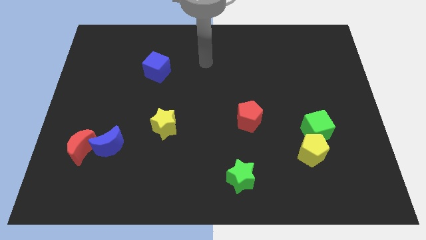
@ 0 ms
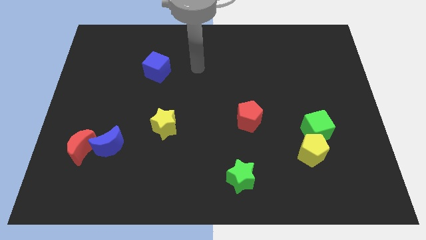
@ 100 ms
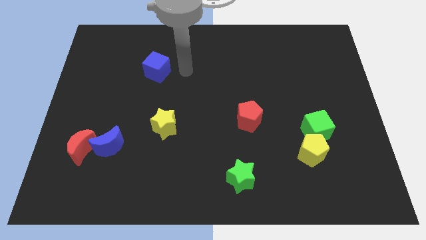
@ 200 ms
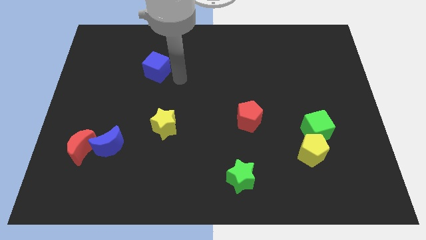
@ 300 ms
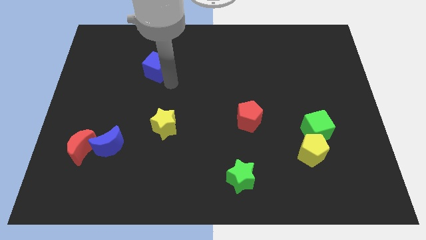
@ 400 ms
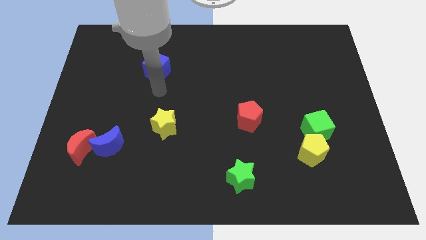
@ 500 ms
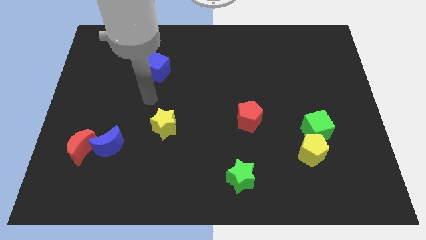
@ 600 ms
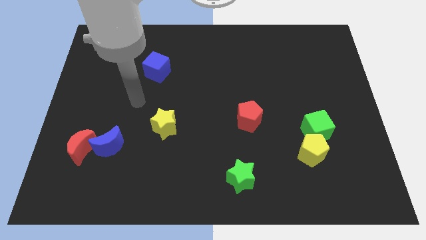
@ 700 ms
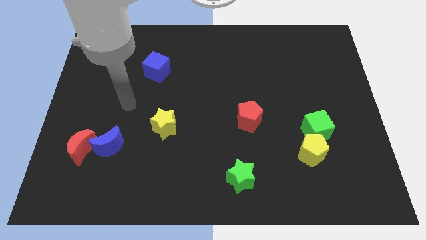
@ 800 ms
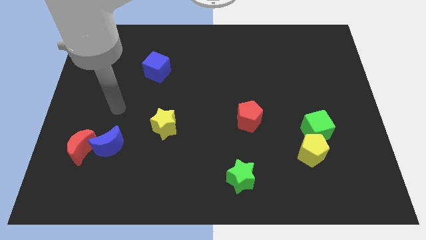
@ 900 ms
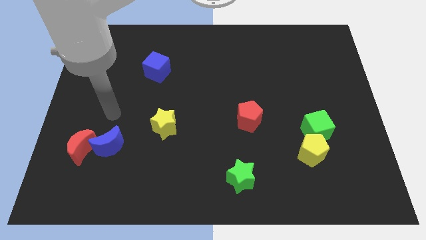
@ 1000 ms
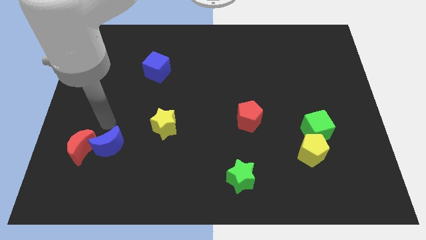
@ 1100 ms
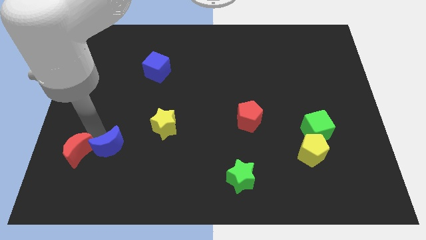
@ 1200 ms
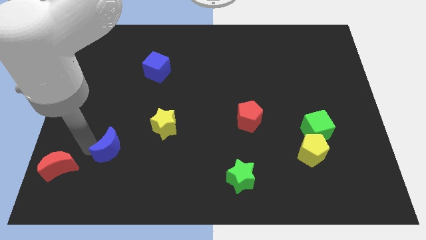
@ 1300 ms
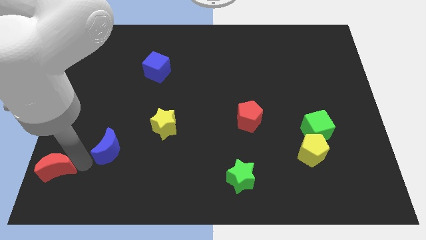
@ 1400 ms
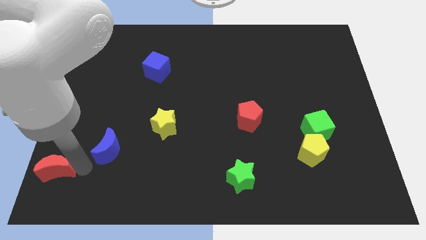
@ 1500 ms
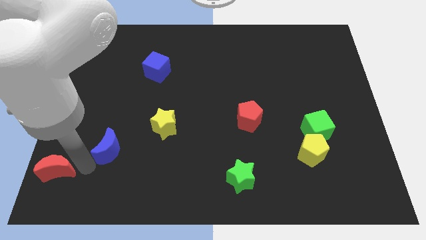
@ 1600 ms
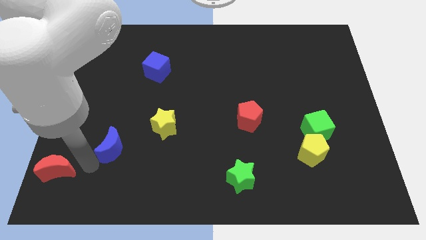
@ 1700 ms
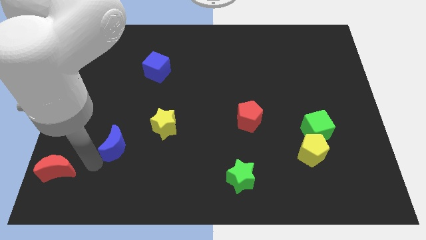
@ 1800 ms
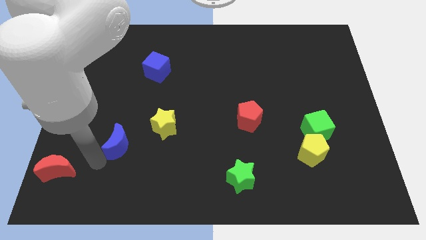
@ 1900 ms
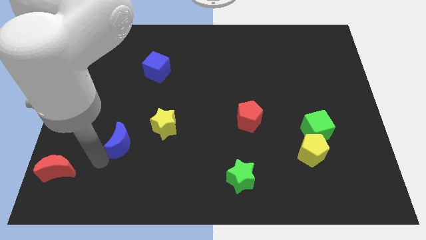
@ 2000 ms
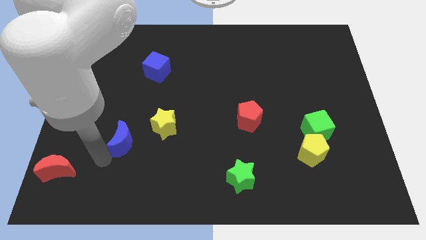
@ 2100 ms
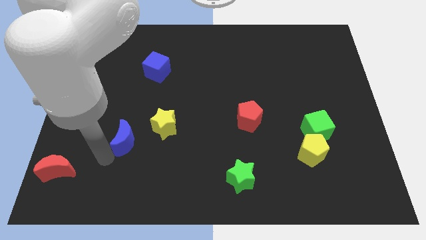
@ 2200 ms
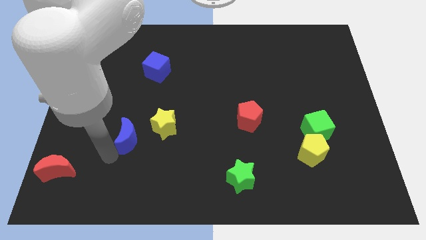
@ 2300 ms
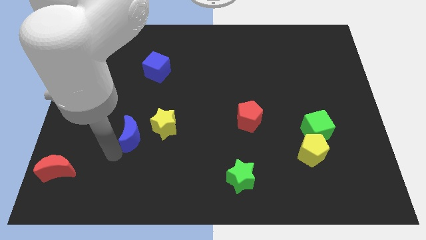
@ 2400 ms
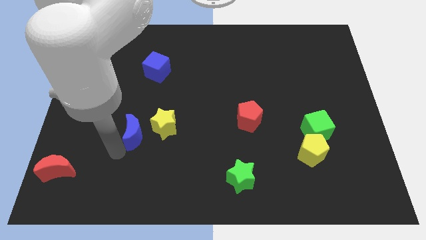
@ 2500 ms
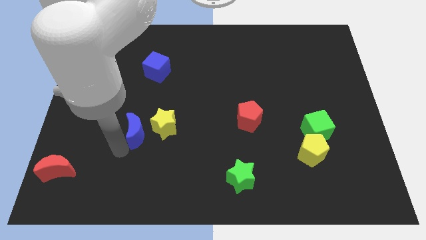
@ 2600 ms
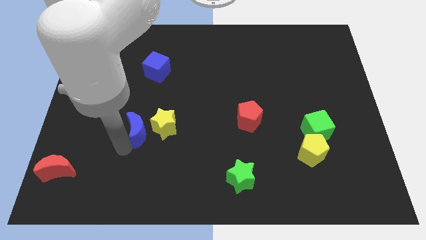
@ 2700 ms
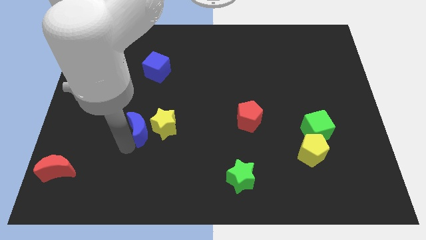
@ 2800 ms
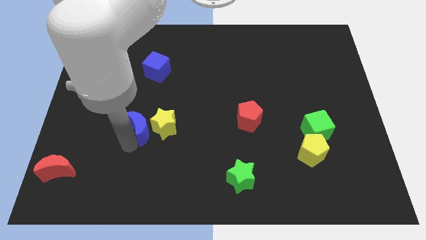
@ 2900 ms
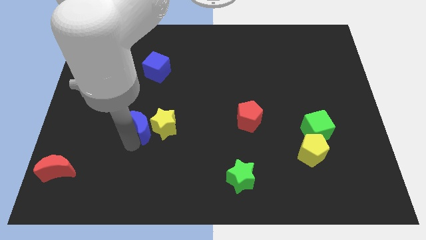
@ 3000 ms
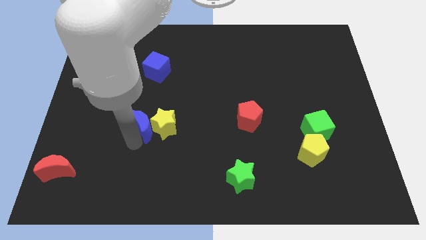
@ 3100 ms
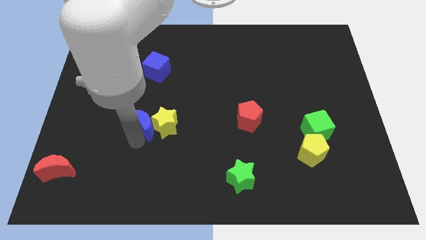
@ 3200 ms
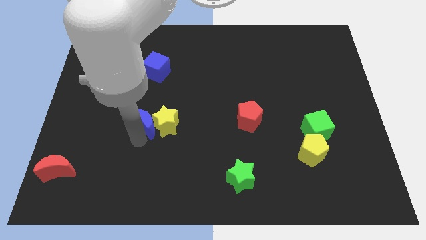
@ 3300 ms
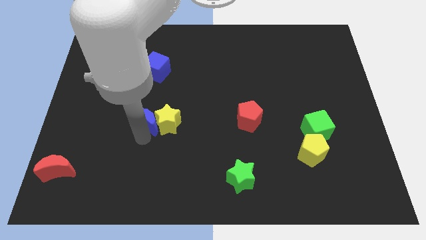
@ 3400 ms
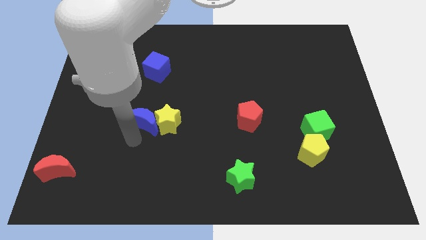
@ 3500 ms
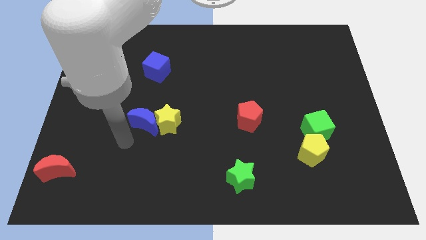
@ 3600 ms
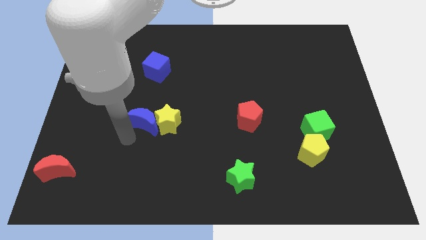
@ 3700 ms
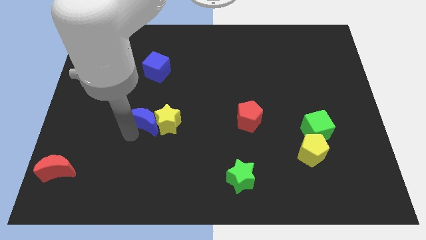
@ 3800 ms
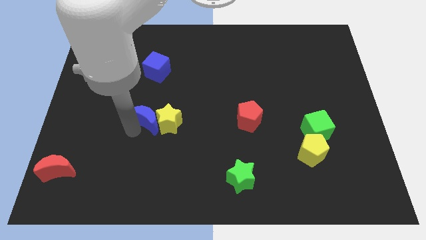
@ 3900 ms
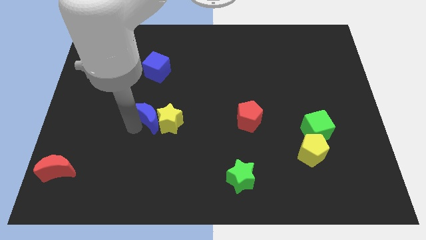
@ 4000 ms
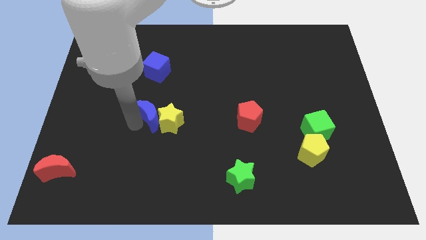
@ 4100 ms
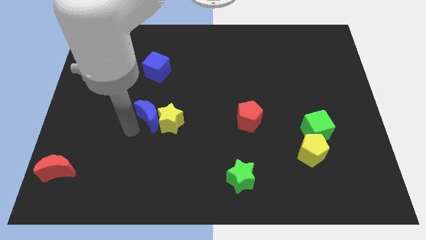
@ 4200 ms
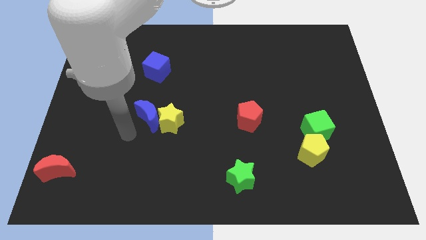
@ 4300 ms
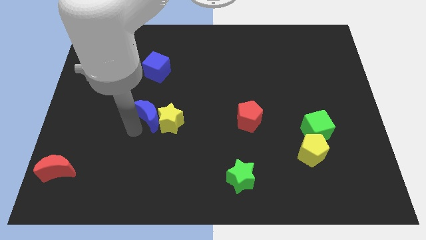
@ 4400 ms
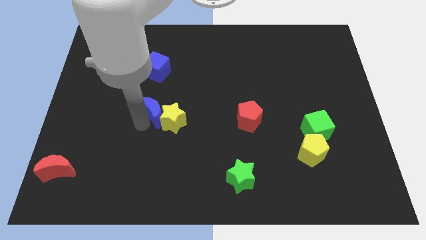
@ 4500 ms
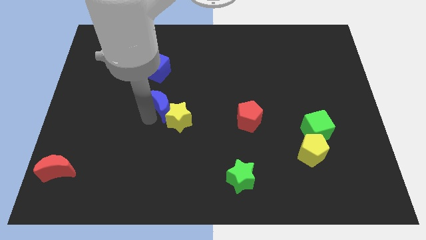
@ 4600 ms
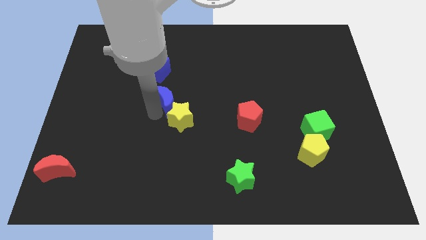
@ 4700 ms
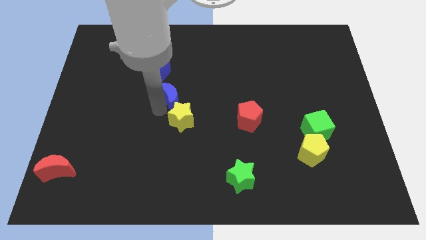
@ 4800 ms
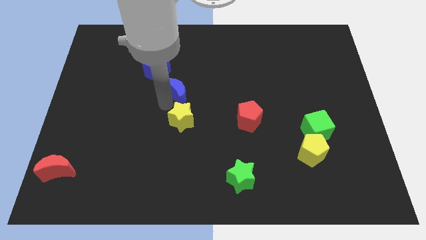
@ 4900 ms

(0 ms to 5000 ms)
slide the blue moon upwards and to the right diagonally

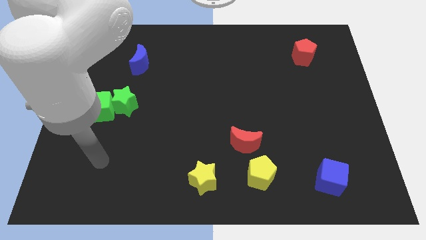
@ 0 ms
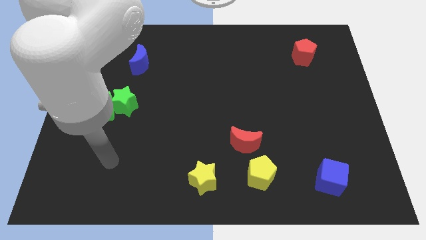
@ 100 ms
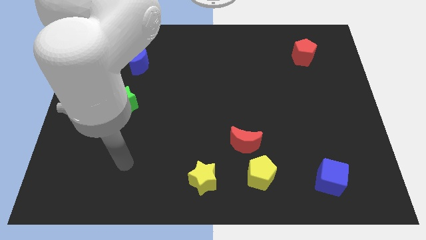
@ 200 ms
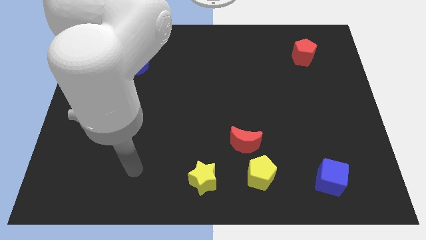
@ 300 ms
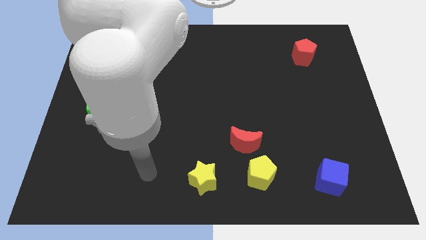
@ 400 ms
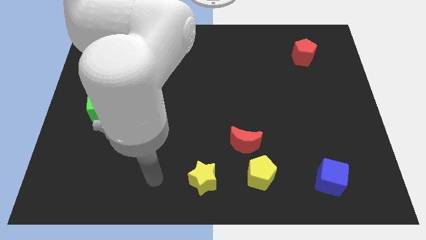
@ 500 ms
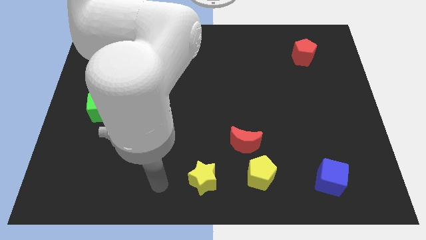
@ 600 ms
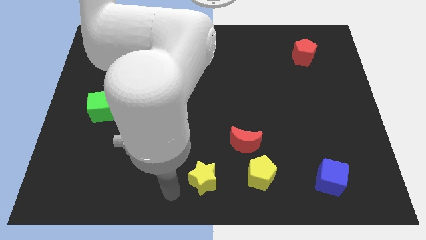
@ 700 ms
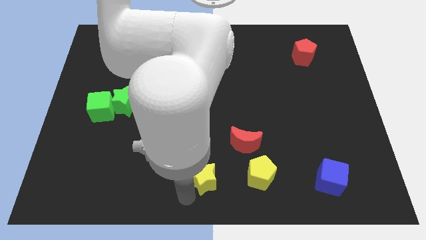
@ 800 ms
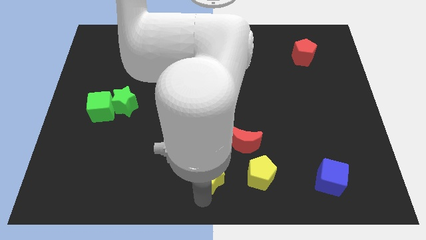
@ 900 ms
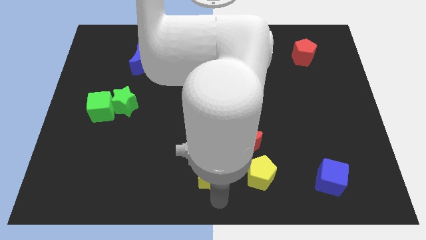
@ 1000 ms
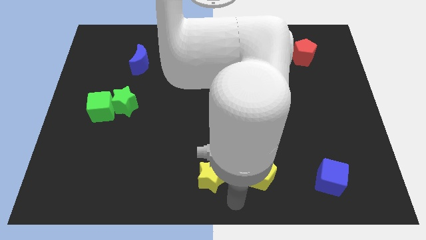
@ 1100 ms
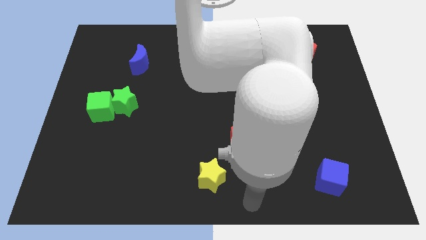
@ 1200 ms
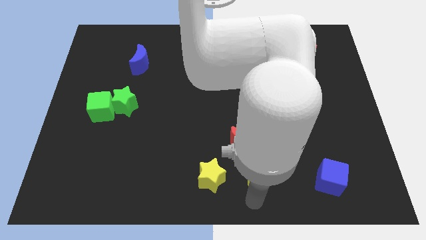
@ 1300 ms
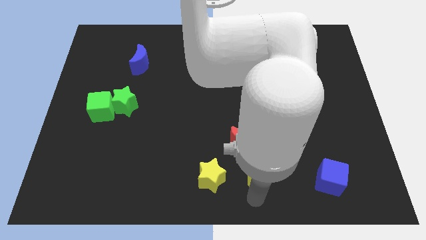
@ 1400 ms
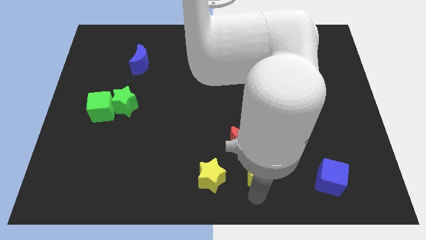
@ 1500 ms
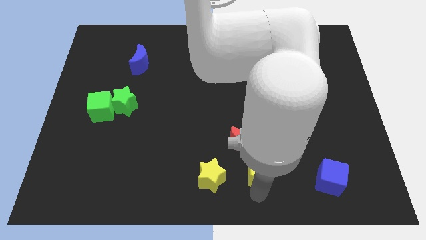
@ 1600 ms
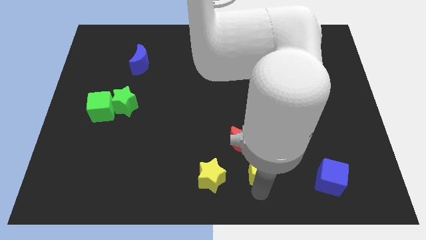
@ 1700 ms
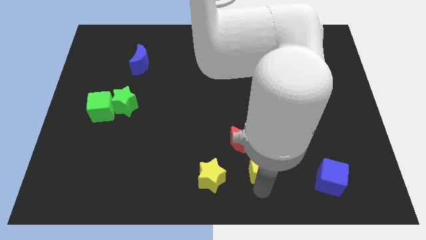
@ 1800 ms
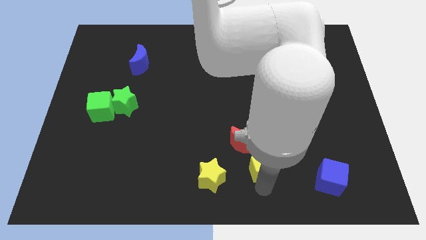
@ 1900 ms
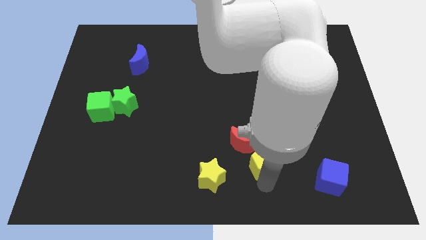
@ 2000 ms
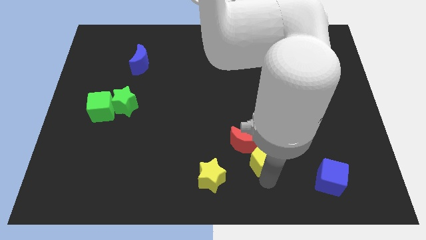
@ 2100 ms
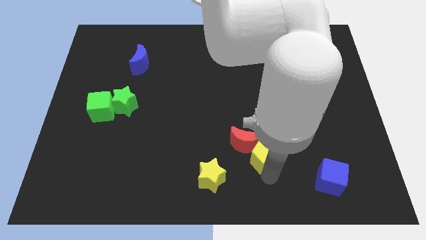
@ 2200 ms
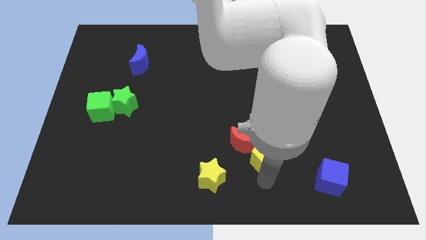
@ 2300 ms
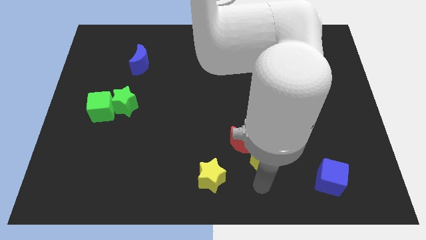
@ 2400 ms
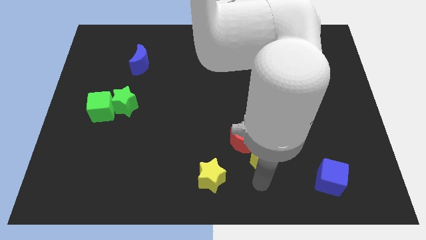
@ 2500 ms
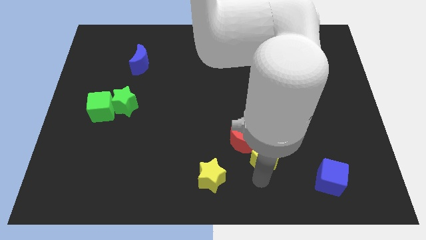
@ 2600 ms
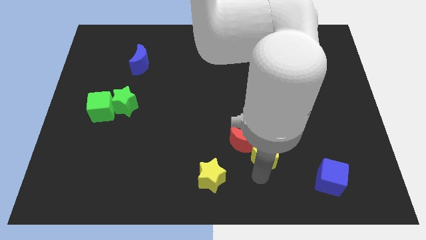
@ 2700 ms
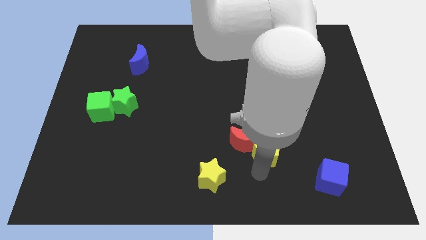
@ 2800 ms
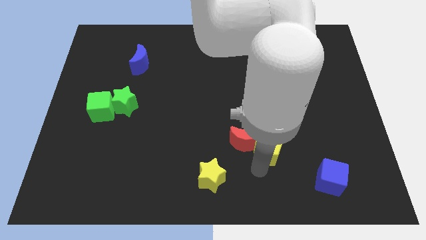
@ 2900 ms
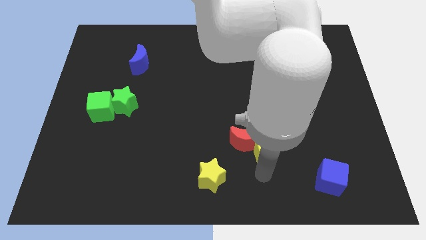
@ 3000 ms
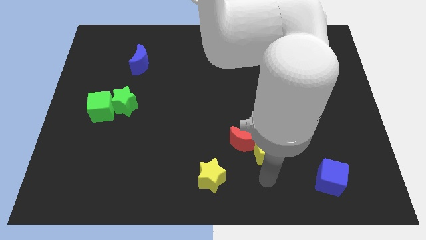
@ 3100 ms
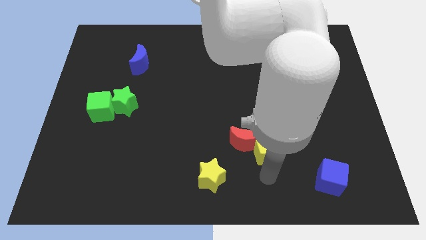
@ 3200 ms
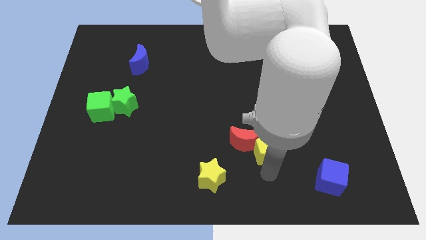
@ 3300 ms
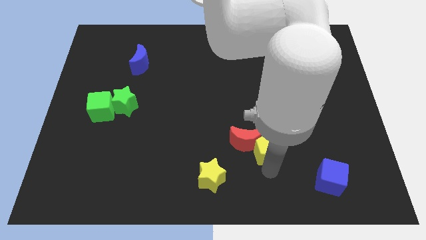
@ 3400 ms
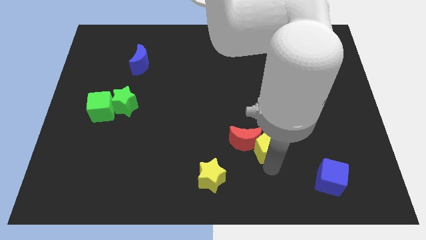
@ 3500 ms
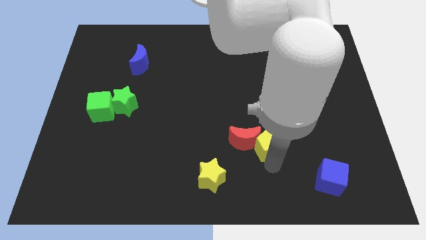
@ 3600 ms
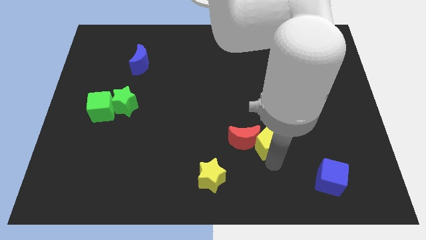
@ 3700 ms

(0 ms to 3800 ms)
slide the yellow pentagon upwards a little bit
